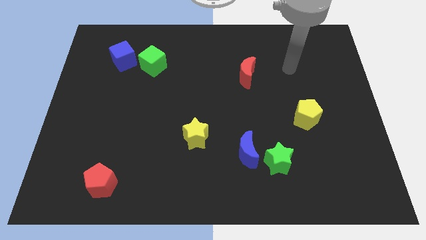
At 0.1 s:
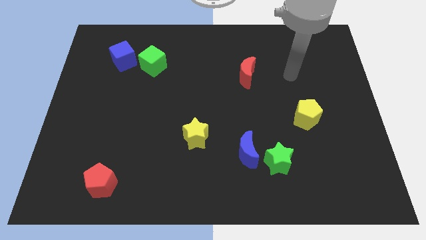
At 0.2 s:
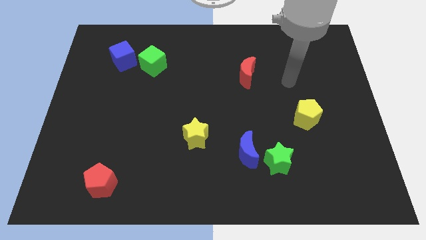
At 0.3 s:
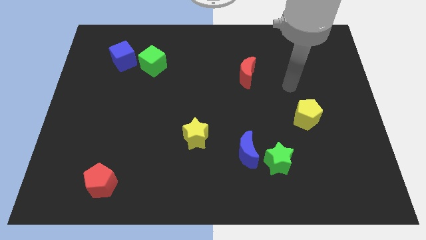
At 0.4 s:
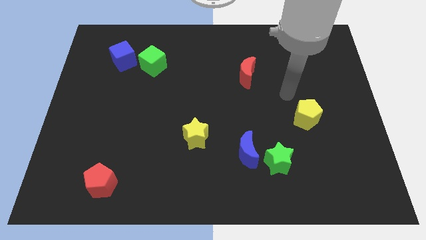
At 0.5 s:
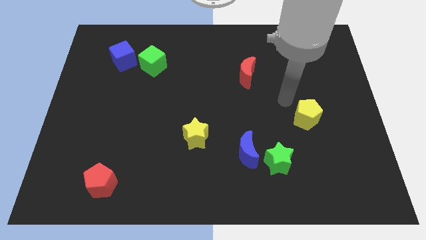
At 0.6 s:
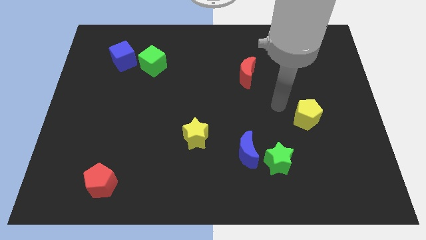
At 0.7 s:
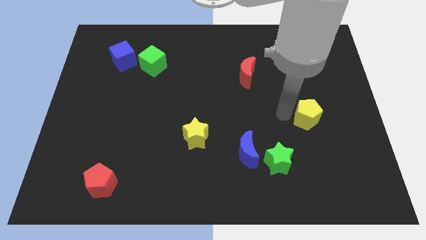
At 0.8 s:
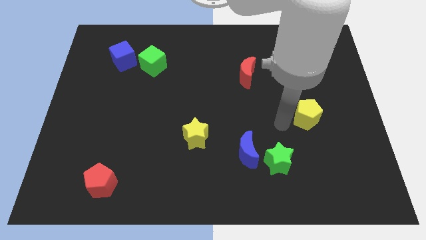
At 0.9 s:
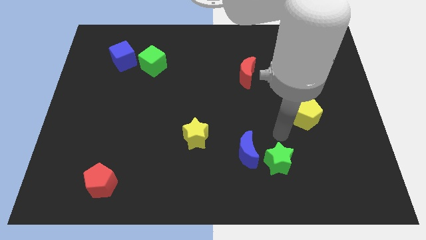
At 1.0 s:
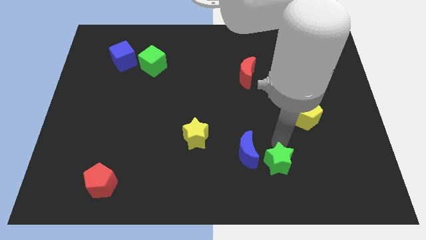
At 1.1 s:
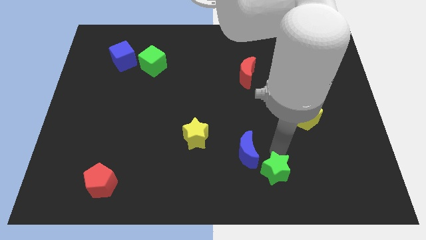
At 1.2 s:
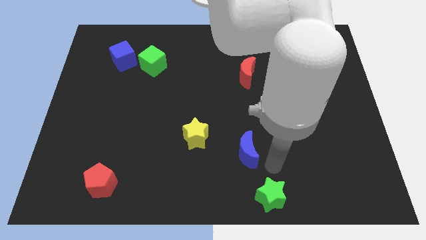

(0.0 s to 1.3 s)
pull the blue moon apart from the green star

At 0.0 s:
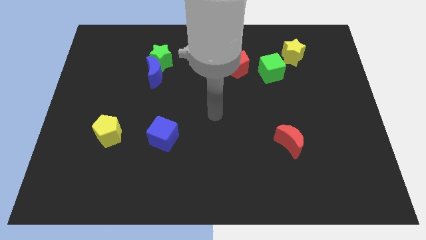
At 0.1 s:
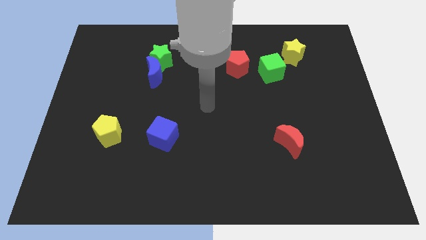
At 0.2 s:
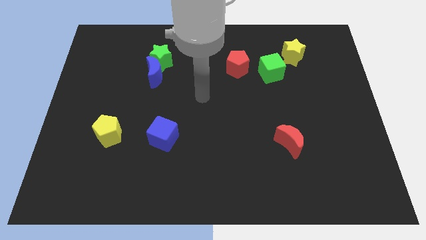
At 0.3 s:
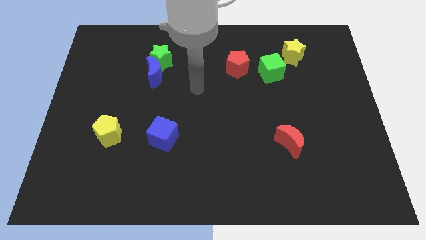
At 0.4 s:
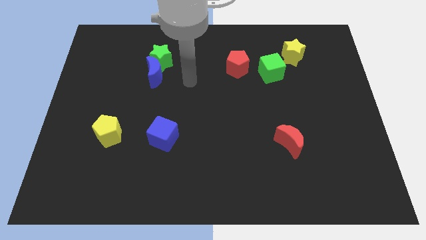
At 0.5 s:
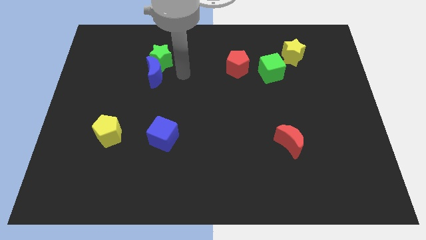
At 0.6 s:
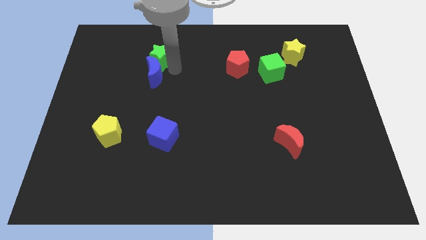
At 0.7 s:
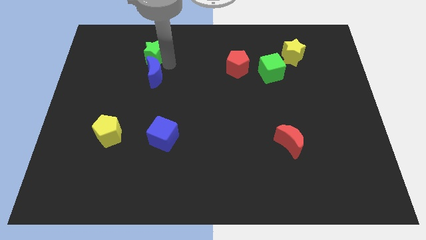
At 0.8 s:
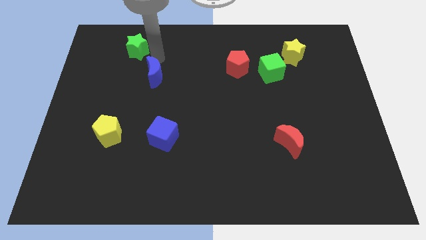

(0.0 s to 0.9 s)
separate the blue moon from the green star

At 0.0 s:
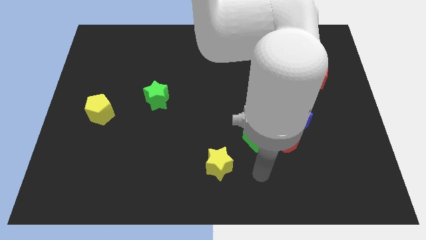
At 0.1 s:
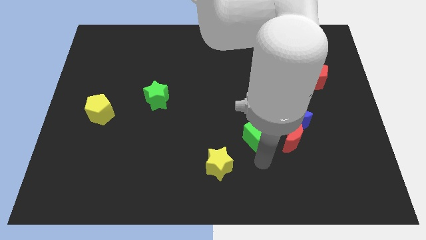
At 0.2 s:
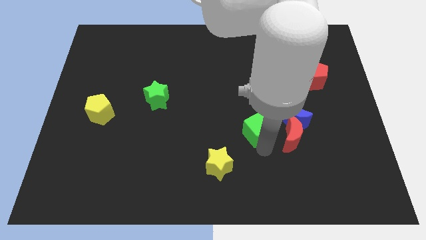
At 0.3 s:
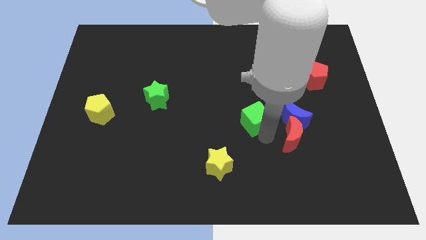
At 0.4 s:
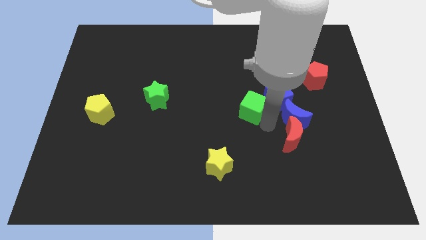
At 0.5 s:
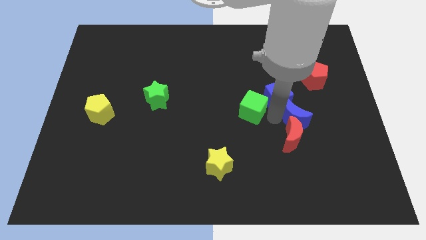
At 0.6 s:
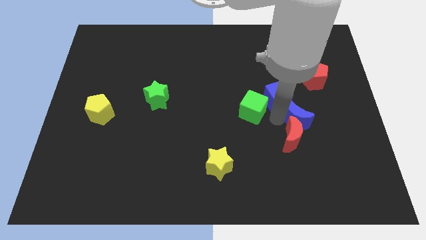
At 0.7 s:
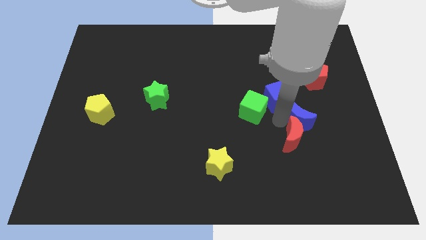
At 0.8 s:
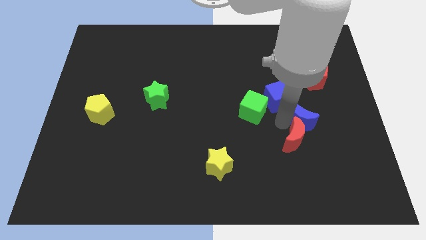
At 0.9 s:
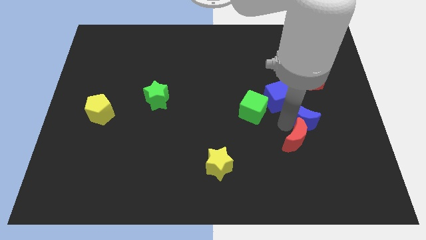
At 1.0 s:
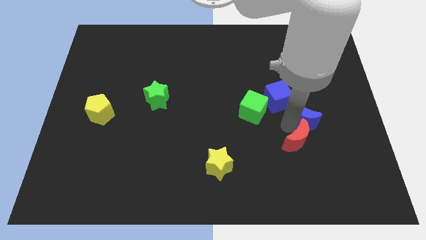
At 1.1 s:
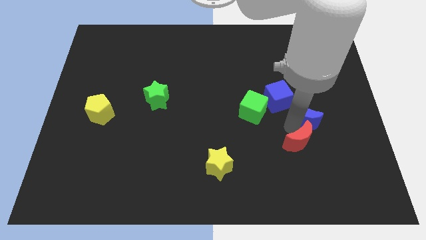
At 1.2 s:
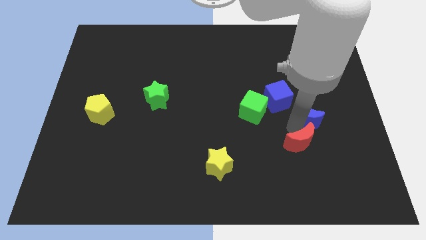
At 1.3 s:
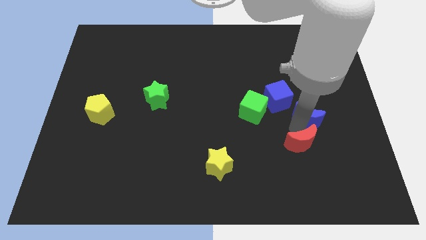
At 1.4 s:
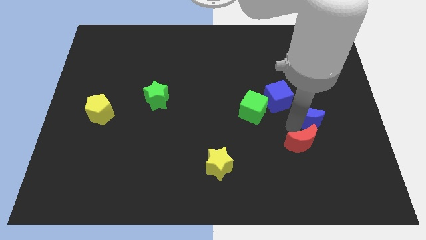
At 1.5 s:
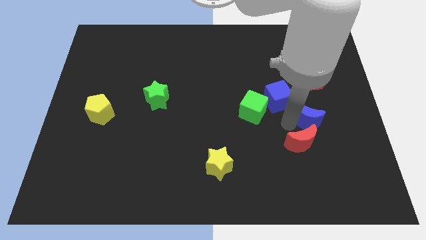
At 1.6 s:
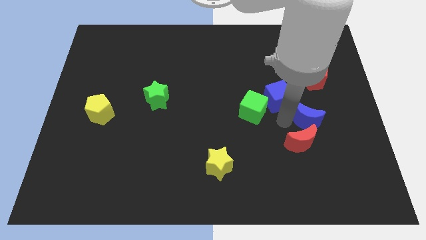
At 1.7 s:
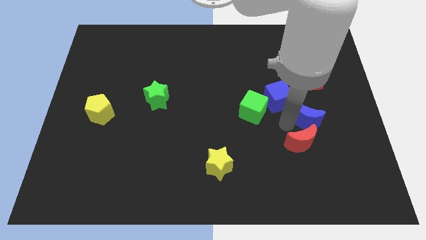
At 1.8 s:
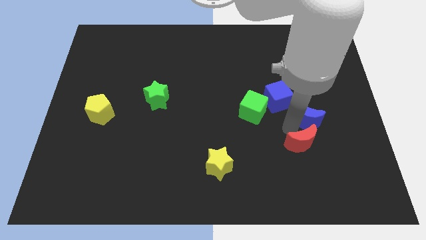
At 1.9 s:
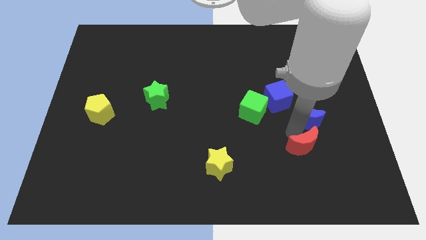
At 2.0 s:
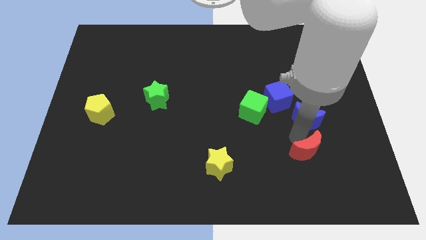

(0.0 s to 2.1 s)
separate the red moon from the blue moon and green cube

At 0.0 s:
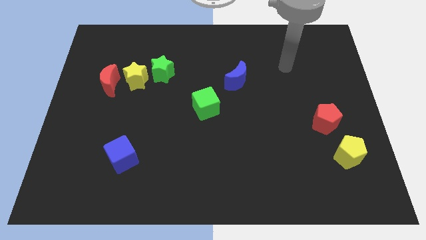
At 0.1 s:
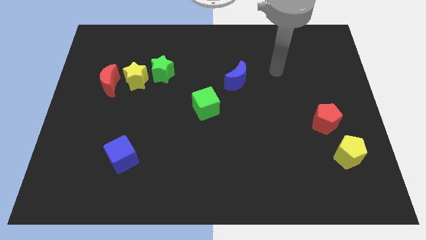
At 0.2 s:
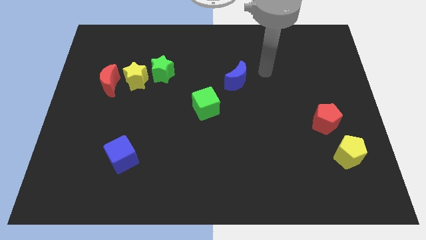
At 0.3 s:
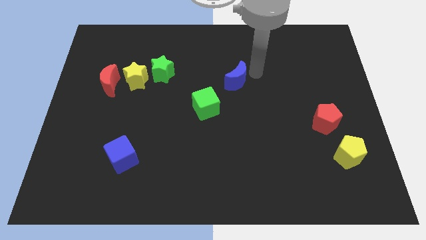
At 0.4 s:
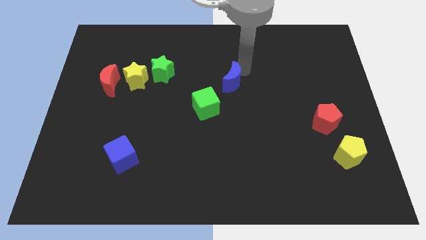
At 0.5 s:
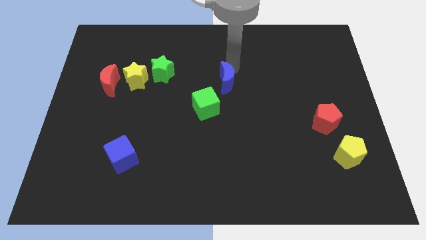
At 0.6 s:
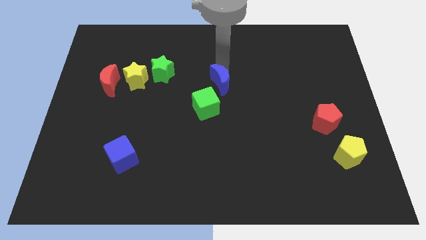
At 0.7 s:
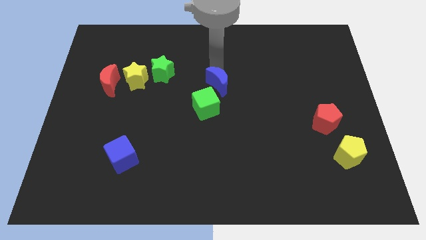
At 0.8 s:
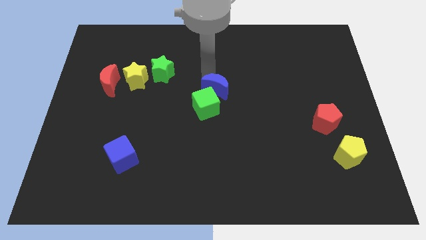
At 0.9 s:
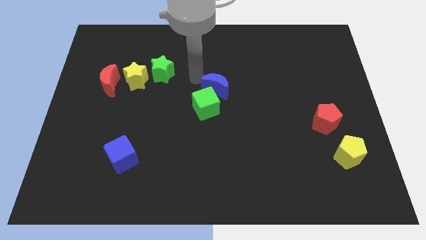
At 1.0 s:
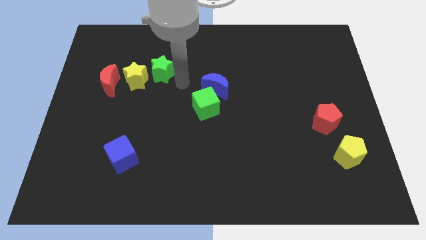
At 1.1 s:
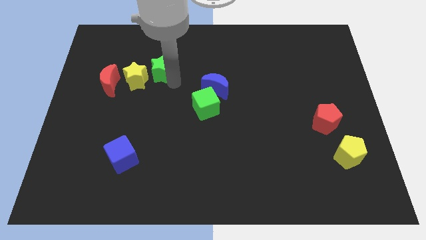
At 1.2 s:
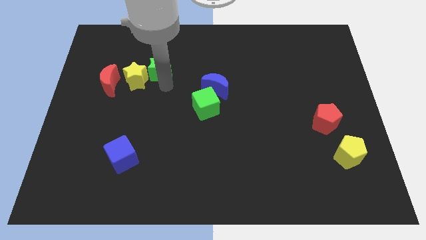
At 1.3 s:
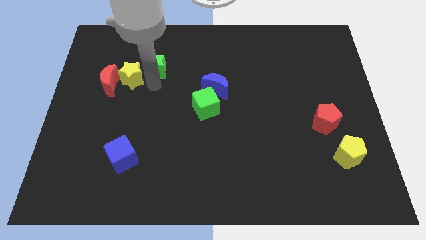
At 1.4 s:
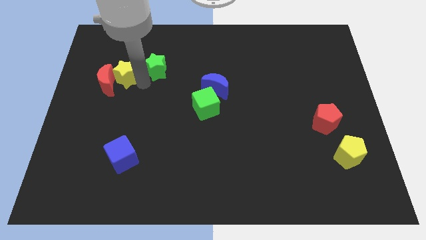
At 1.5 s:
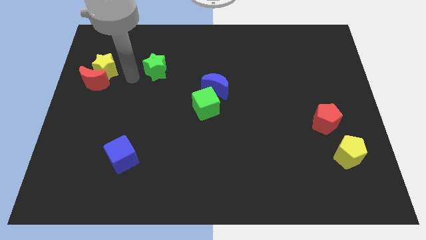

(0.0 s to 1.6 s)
separate the green star from the yellow star

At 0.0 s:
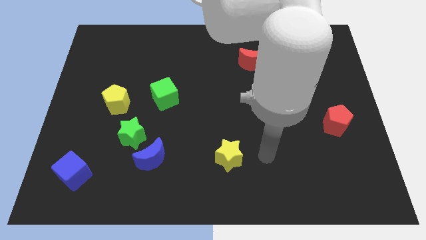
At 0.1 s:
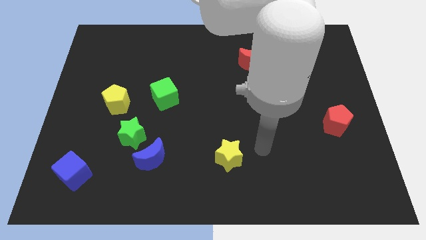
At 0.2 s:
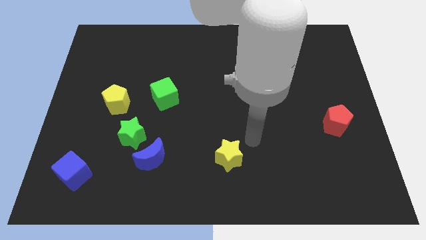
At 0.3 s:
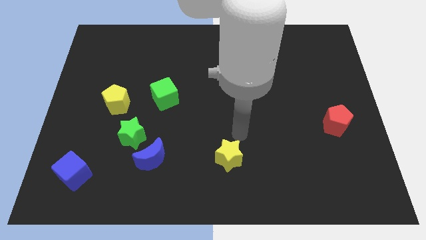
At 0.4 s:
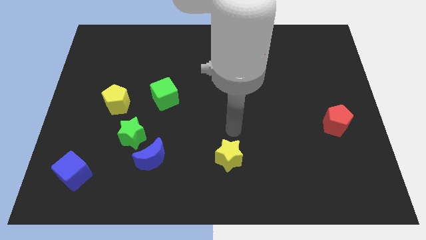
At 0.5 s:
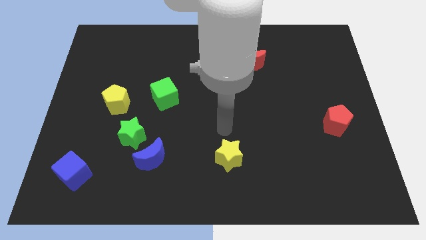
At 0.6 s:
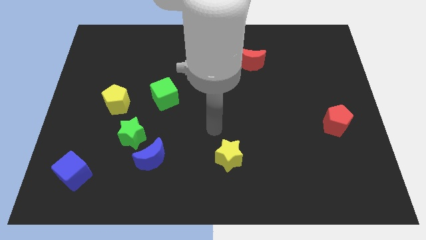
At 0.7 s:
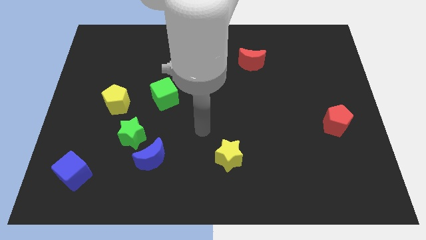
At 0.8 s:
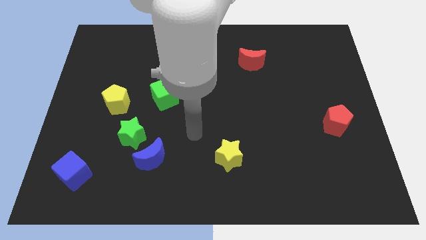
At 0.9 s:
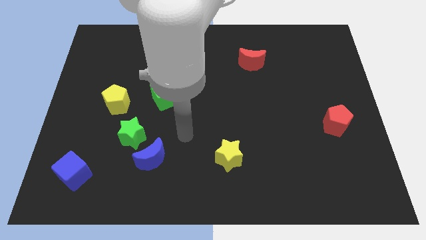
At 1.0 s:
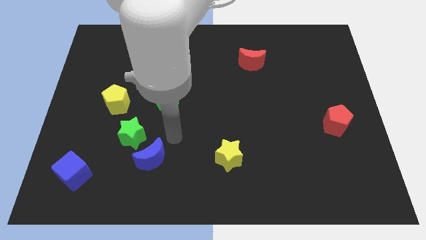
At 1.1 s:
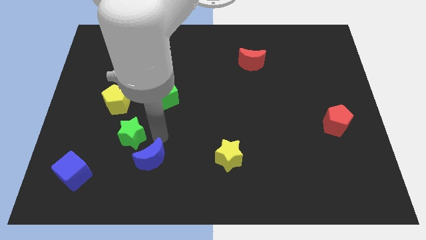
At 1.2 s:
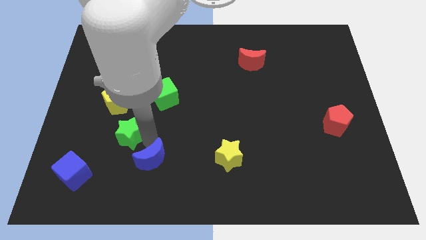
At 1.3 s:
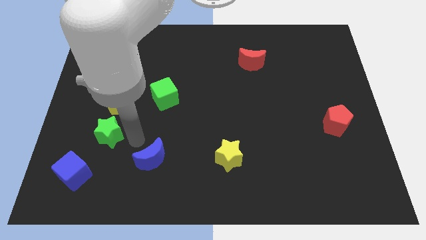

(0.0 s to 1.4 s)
move the blue moon away from the green star

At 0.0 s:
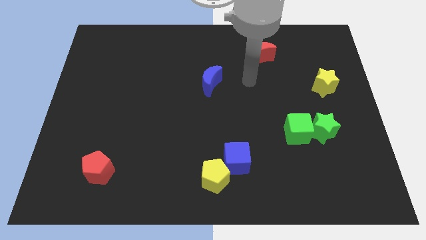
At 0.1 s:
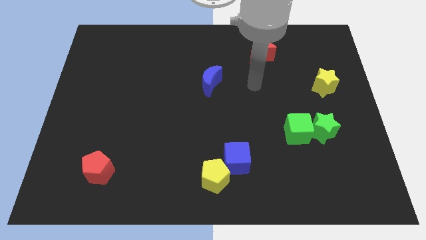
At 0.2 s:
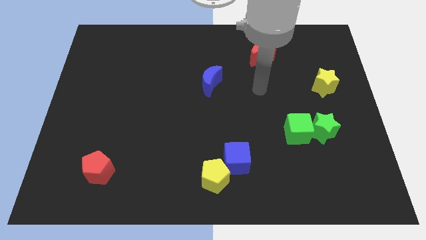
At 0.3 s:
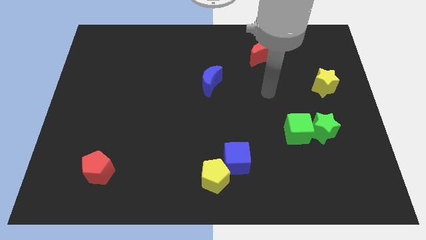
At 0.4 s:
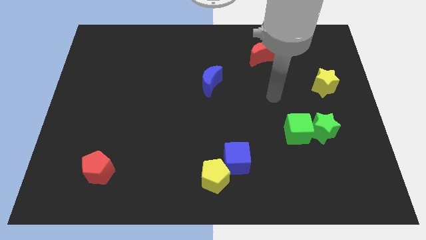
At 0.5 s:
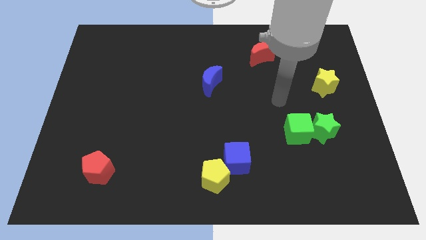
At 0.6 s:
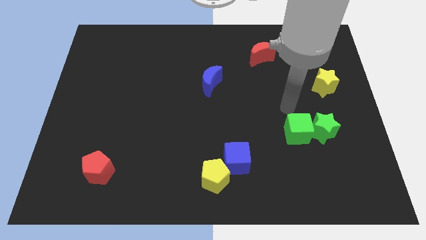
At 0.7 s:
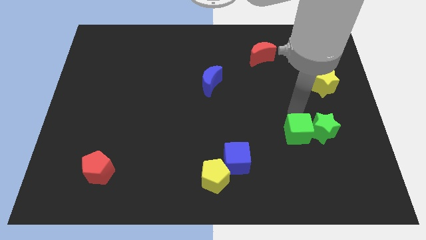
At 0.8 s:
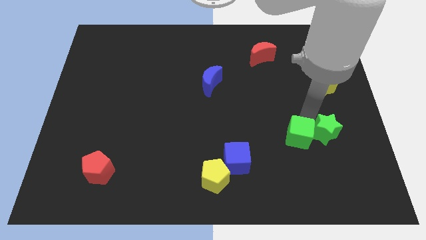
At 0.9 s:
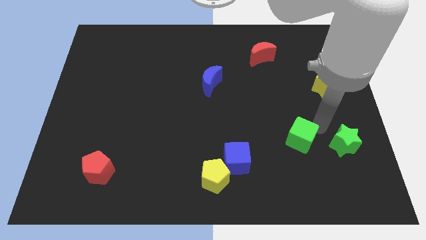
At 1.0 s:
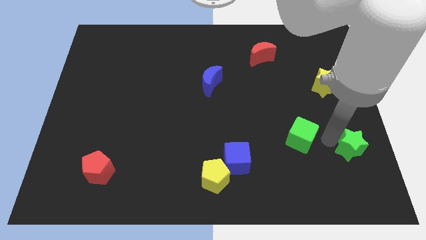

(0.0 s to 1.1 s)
separate the green cube from the green star

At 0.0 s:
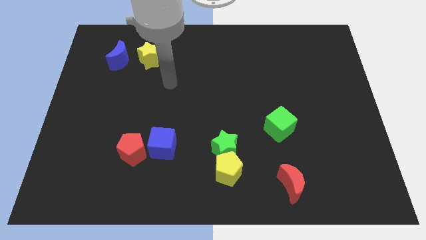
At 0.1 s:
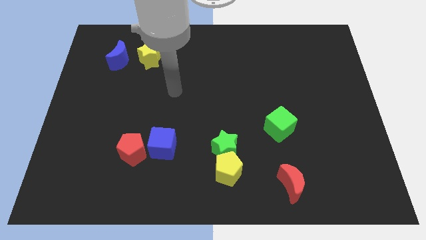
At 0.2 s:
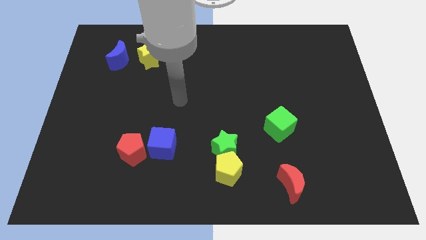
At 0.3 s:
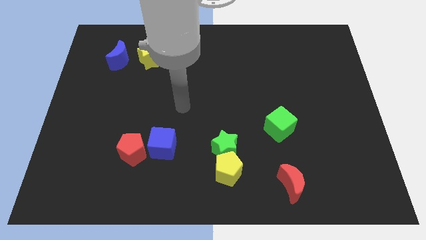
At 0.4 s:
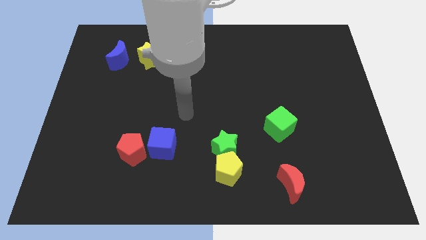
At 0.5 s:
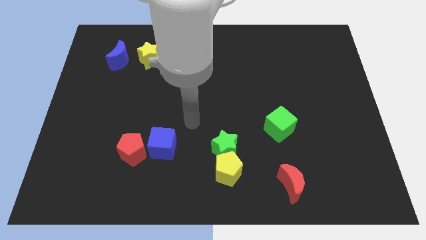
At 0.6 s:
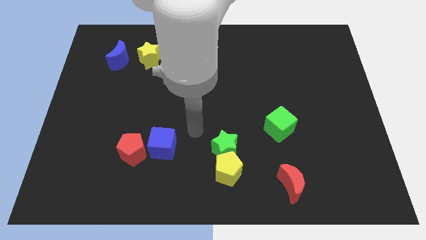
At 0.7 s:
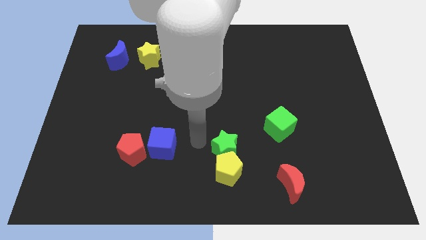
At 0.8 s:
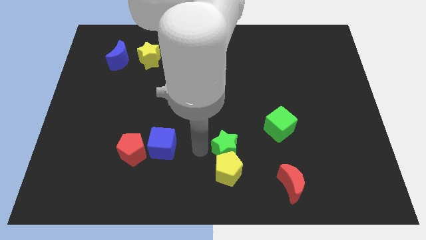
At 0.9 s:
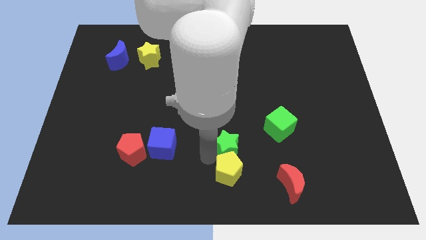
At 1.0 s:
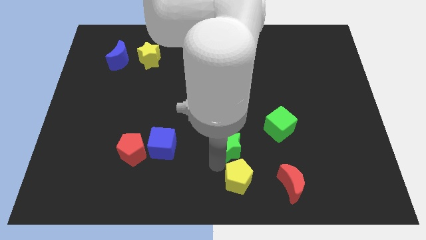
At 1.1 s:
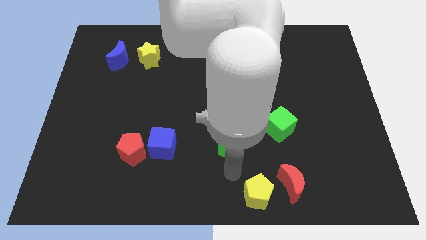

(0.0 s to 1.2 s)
pull the green star apart from the yellow pentagon
